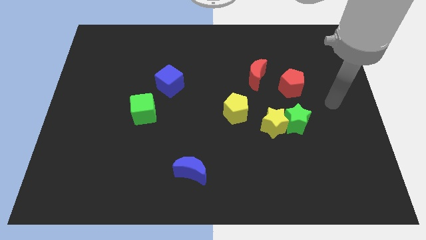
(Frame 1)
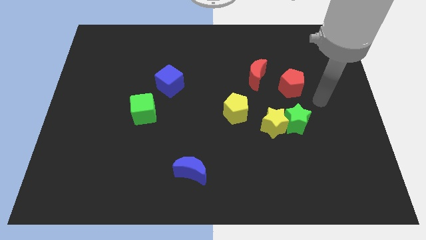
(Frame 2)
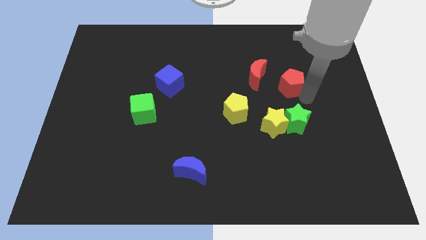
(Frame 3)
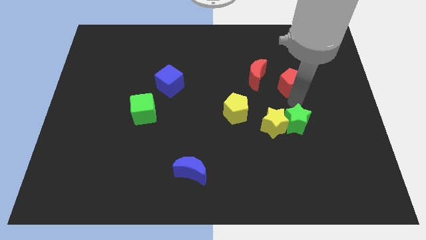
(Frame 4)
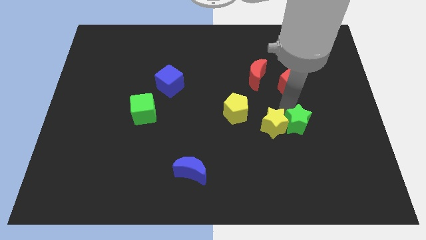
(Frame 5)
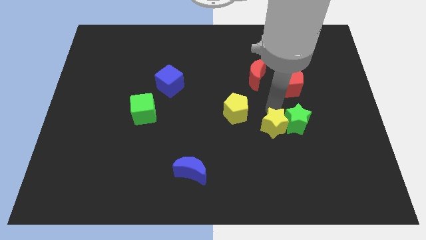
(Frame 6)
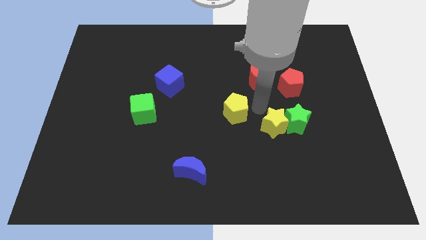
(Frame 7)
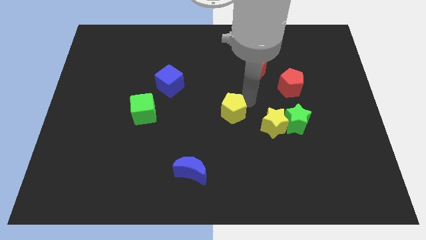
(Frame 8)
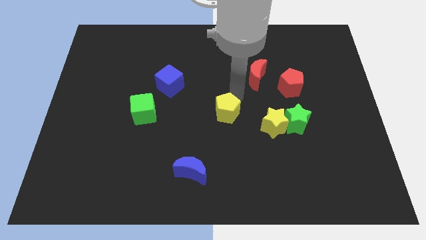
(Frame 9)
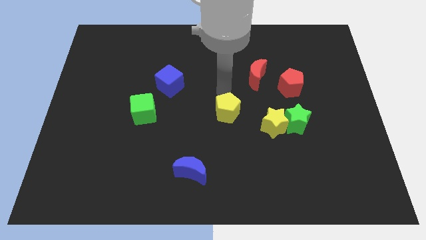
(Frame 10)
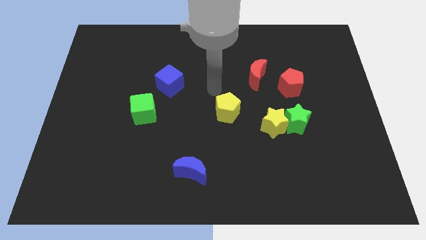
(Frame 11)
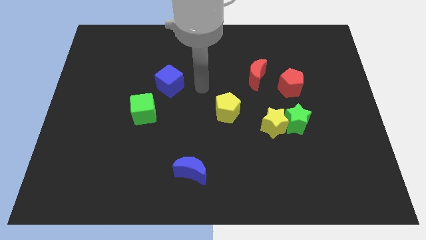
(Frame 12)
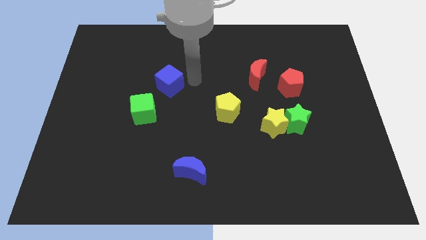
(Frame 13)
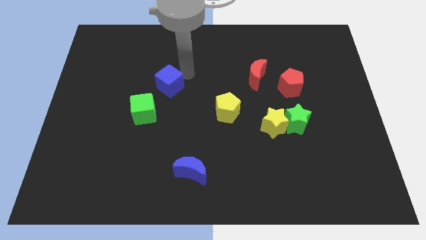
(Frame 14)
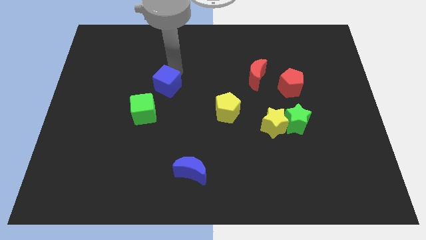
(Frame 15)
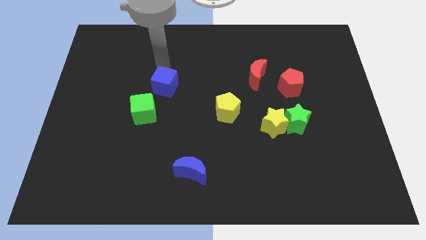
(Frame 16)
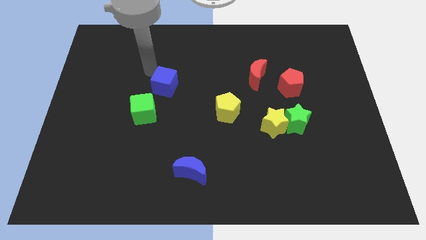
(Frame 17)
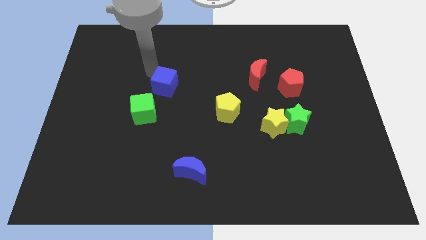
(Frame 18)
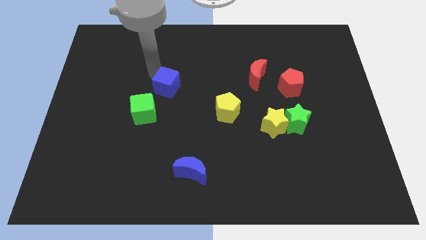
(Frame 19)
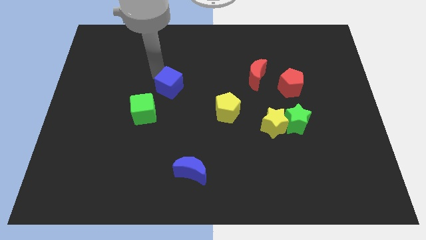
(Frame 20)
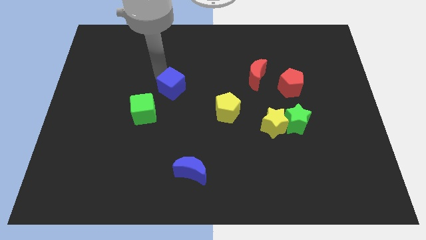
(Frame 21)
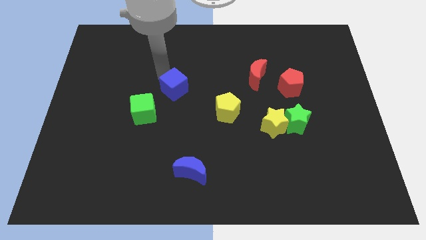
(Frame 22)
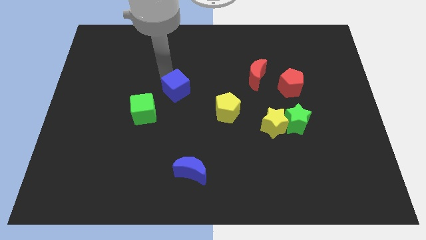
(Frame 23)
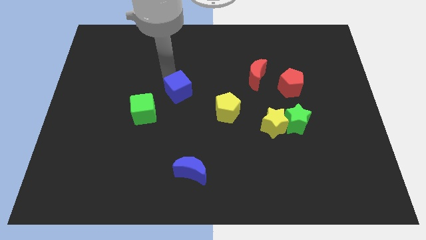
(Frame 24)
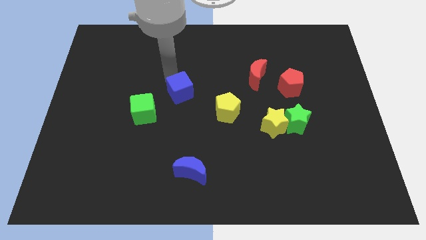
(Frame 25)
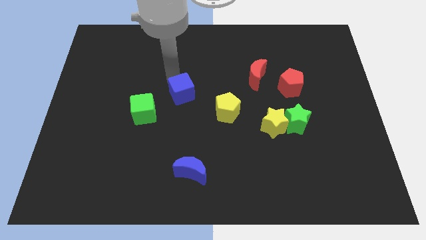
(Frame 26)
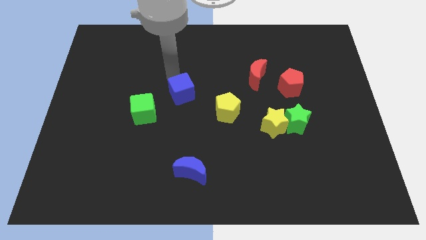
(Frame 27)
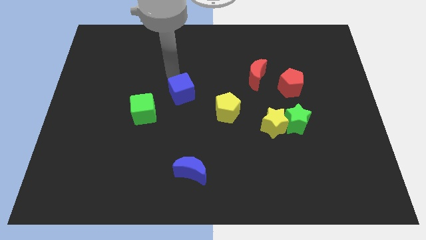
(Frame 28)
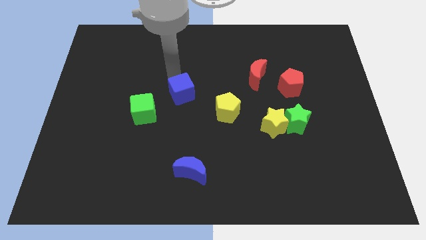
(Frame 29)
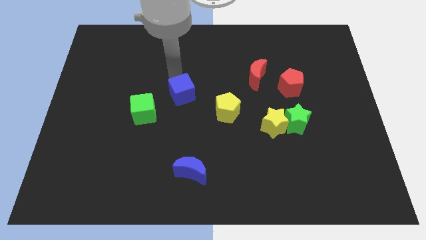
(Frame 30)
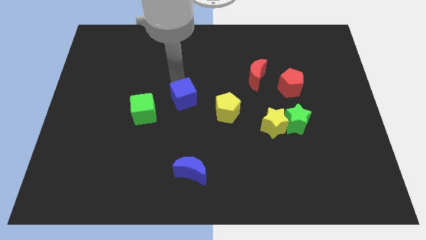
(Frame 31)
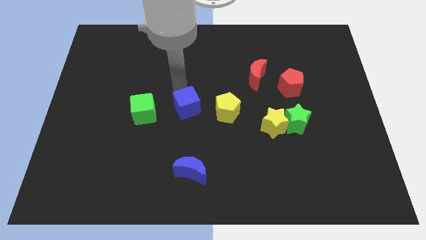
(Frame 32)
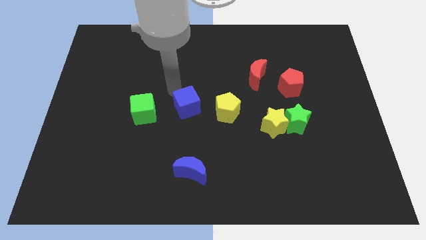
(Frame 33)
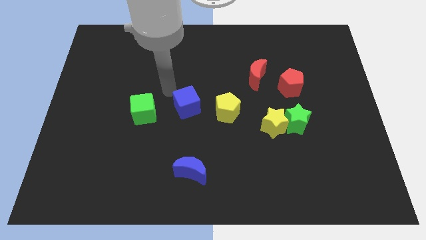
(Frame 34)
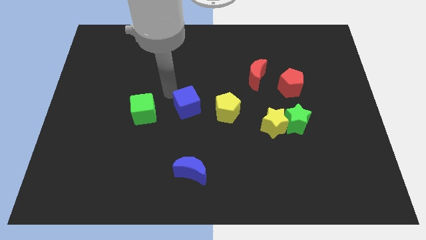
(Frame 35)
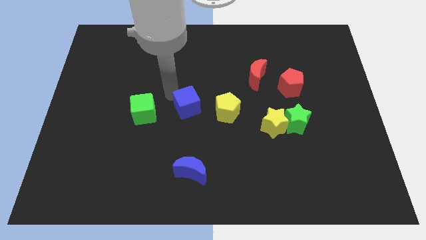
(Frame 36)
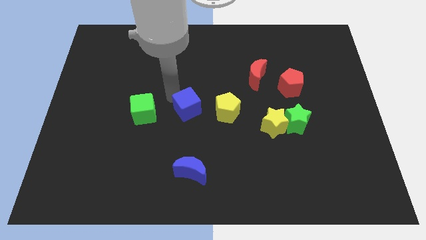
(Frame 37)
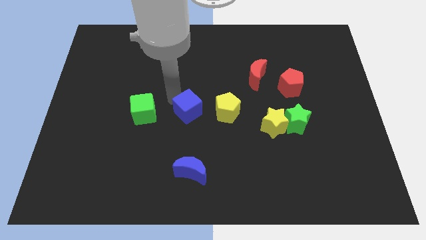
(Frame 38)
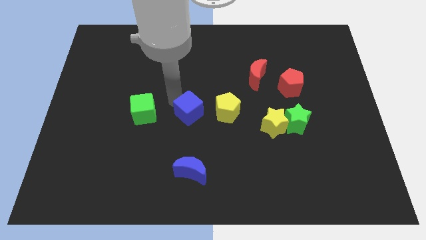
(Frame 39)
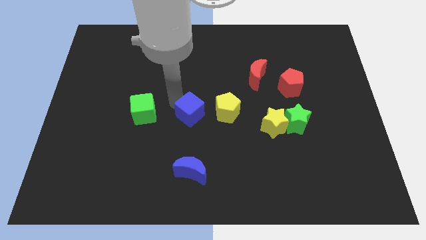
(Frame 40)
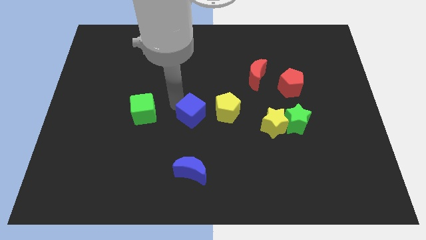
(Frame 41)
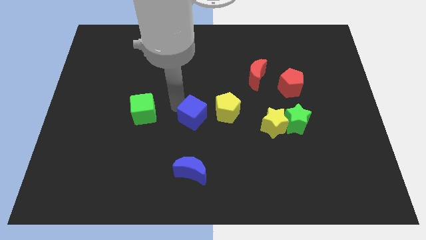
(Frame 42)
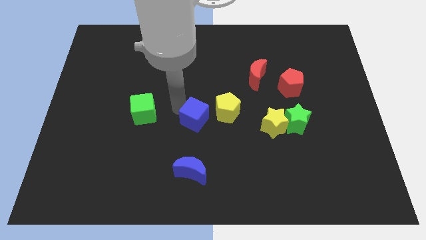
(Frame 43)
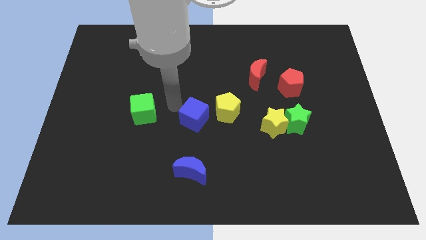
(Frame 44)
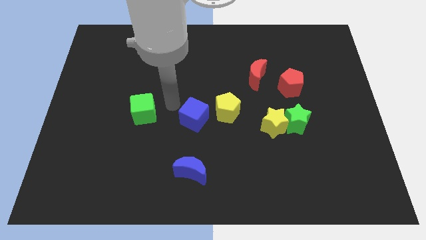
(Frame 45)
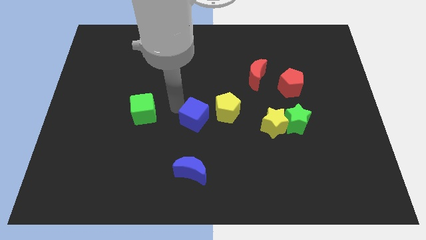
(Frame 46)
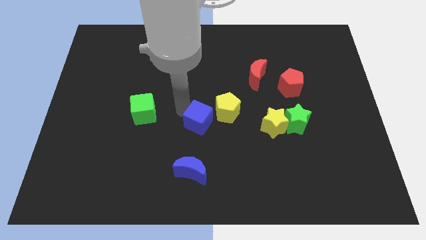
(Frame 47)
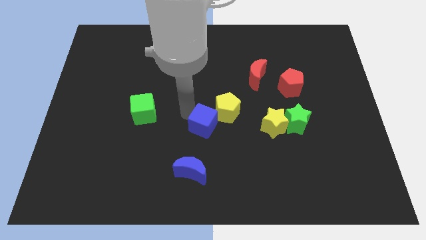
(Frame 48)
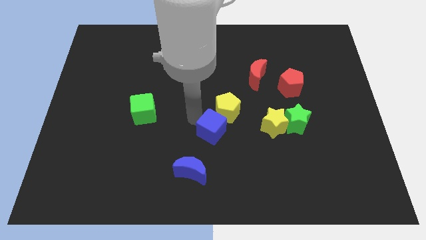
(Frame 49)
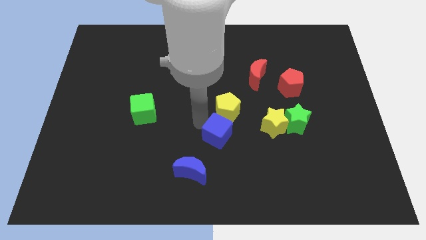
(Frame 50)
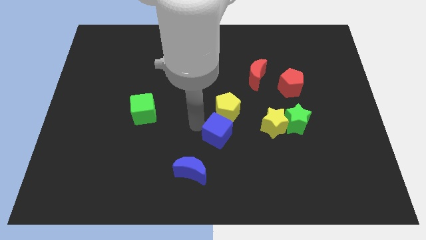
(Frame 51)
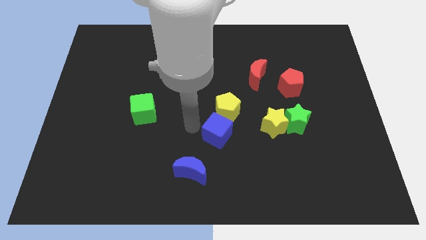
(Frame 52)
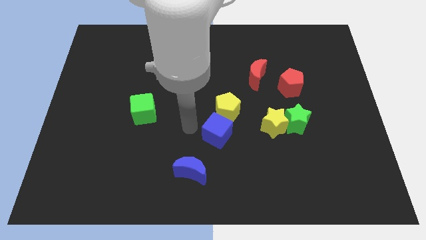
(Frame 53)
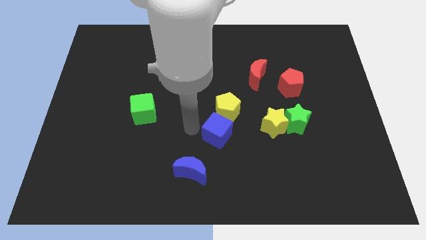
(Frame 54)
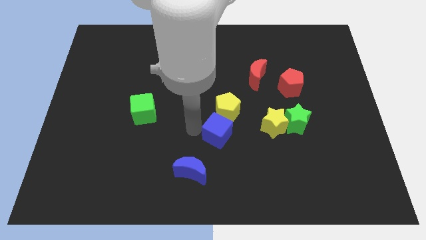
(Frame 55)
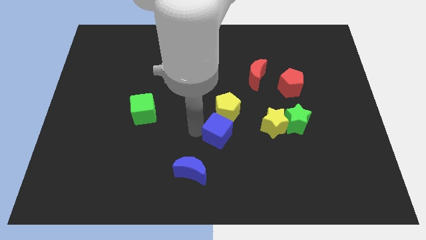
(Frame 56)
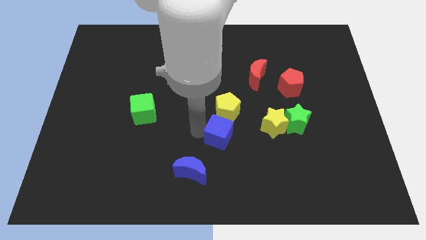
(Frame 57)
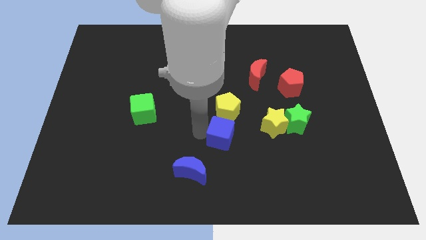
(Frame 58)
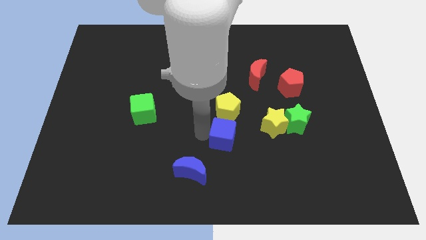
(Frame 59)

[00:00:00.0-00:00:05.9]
move the blue cube diagonally downwards and to the right

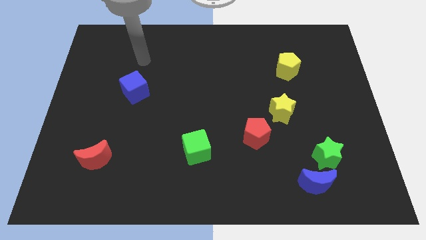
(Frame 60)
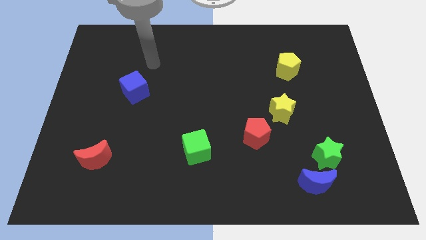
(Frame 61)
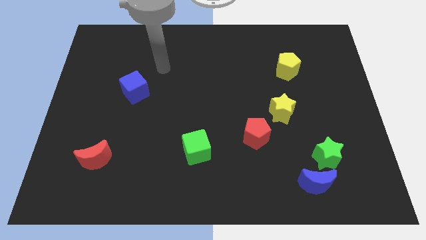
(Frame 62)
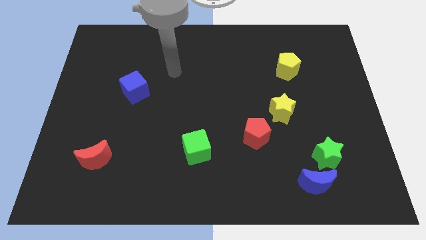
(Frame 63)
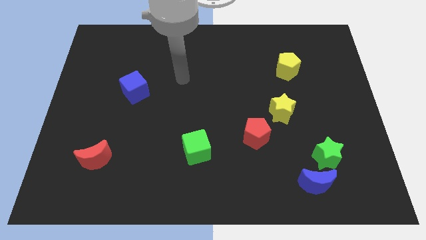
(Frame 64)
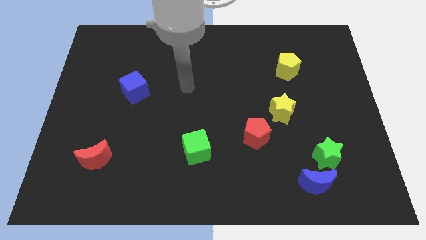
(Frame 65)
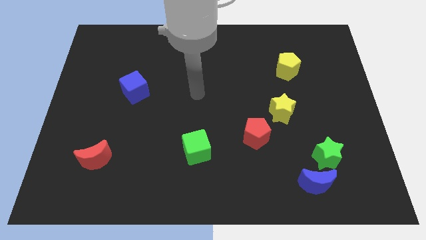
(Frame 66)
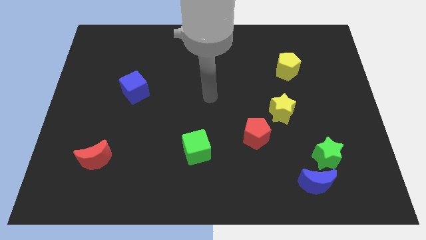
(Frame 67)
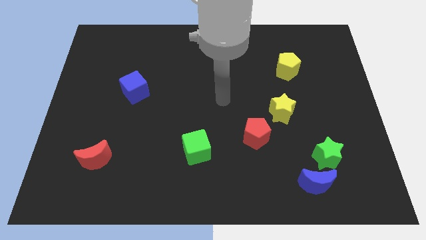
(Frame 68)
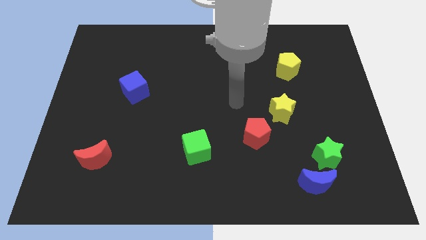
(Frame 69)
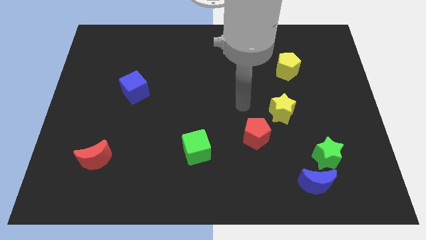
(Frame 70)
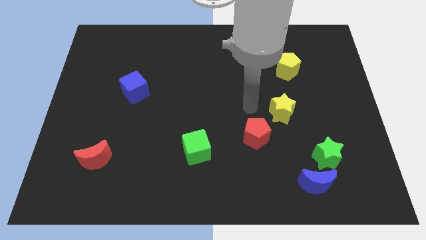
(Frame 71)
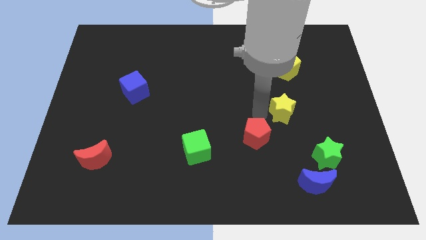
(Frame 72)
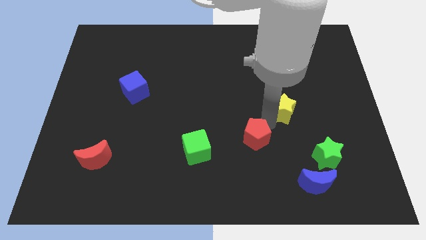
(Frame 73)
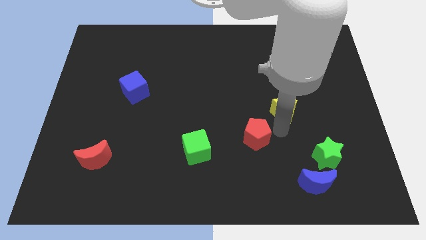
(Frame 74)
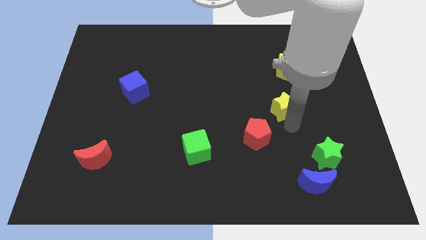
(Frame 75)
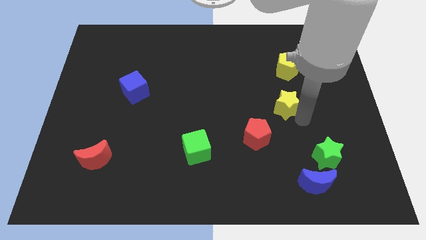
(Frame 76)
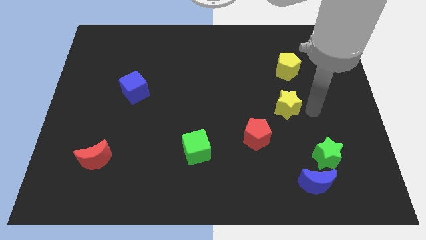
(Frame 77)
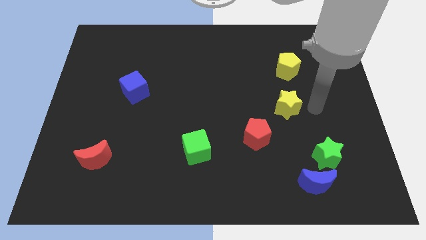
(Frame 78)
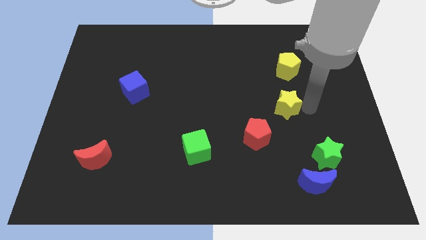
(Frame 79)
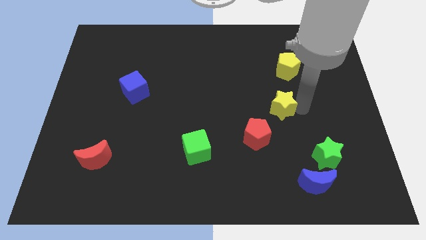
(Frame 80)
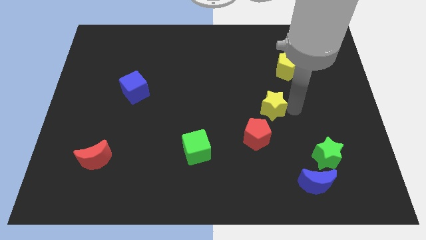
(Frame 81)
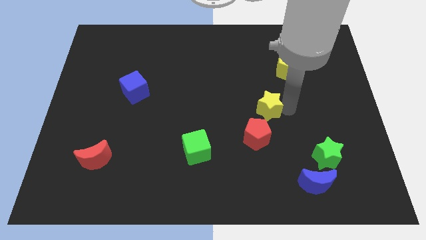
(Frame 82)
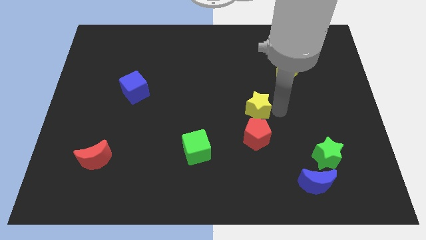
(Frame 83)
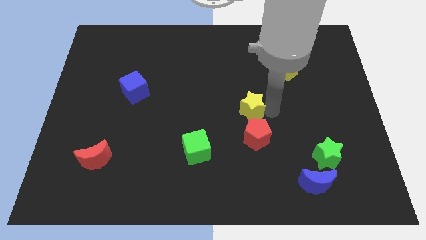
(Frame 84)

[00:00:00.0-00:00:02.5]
push the yellow star a little bit to the left
